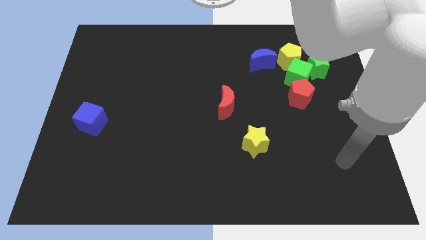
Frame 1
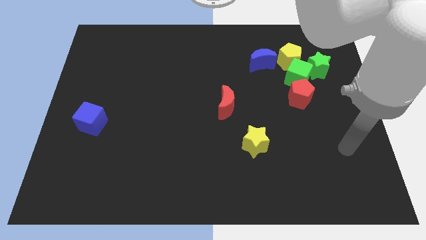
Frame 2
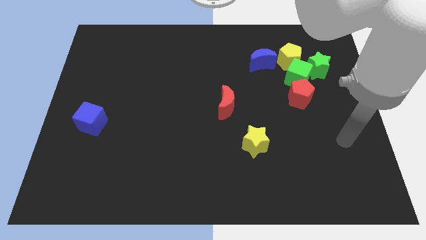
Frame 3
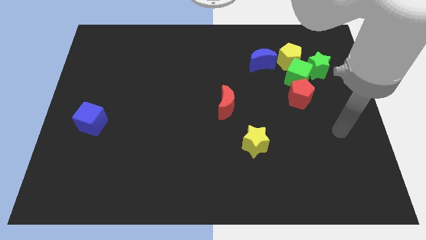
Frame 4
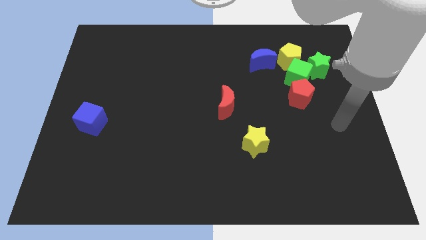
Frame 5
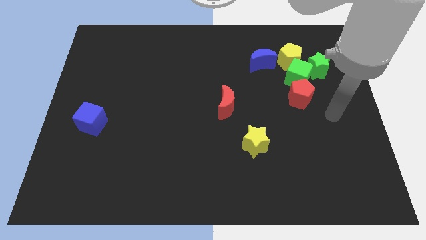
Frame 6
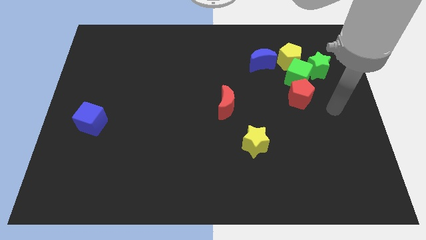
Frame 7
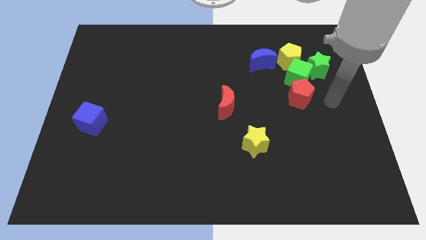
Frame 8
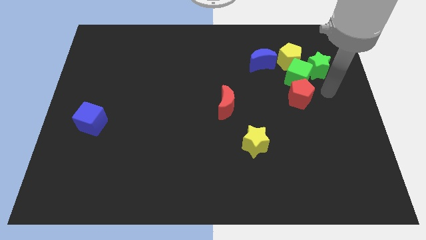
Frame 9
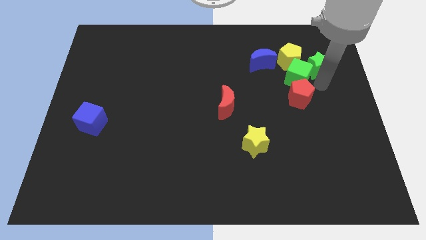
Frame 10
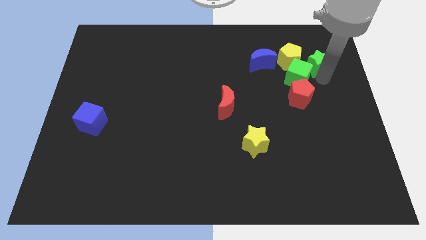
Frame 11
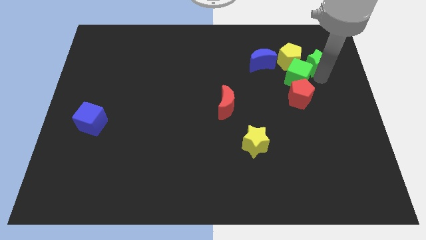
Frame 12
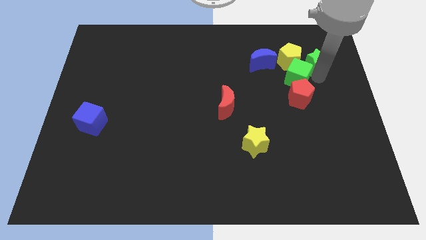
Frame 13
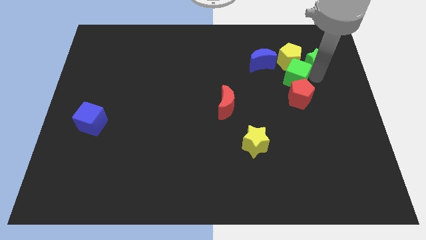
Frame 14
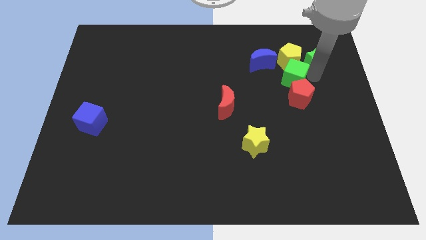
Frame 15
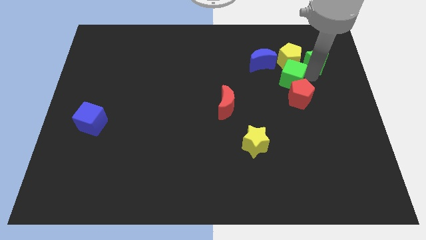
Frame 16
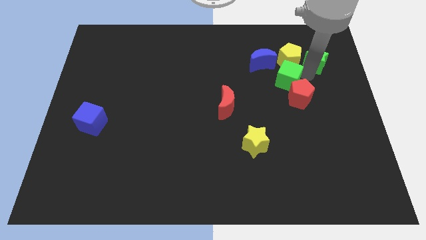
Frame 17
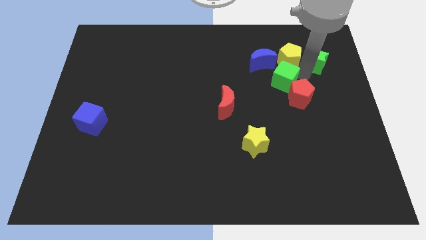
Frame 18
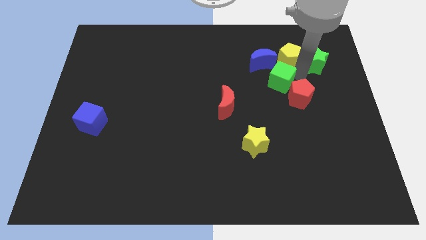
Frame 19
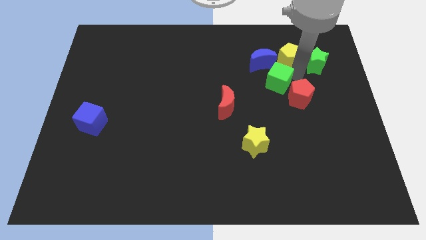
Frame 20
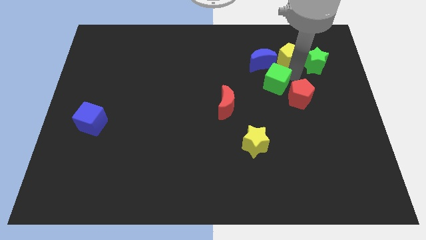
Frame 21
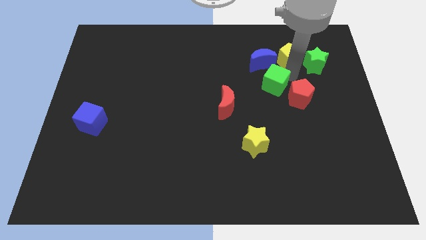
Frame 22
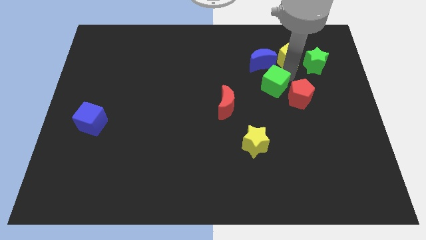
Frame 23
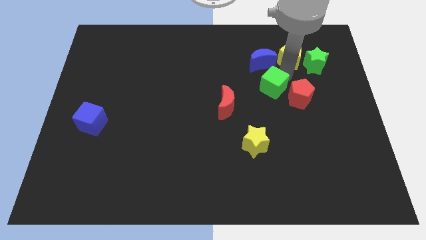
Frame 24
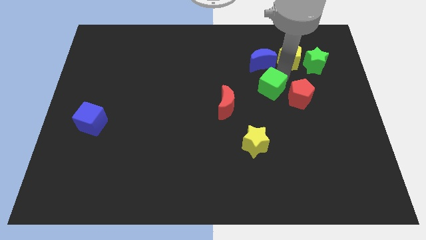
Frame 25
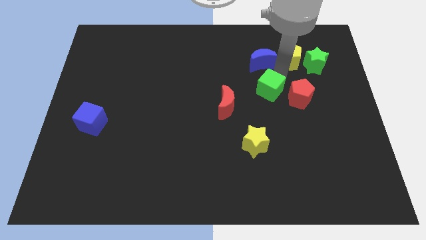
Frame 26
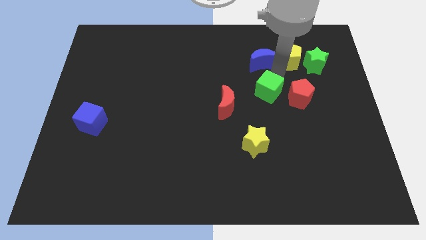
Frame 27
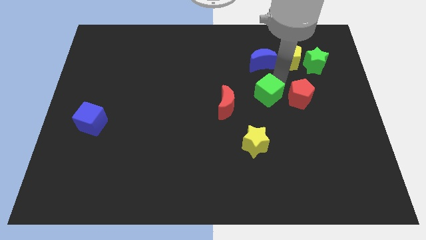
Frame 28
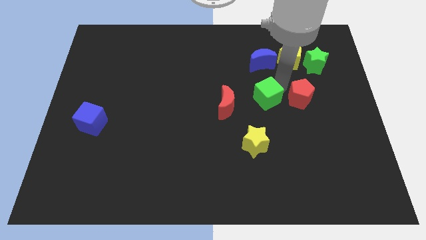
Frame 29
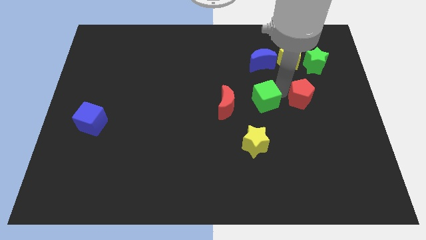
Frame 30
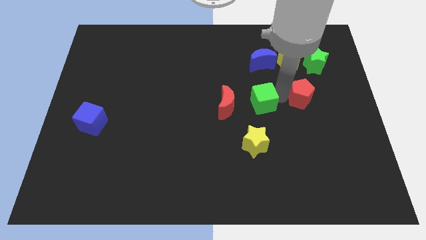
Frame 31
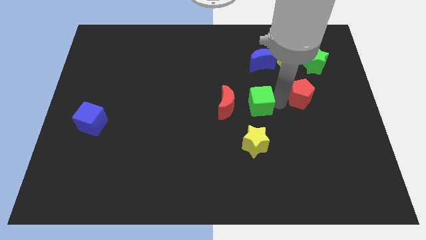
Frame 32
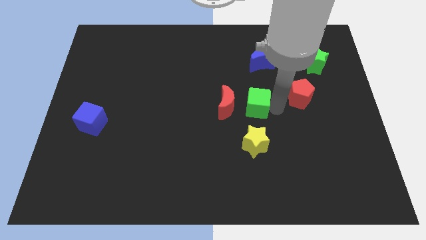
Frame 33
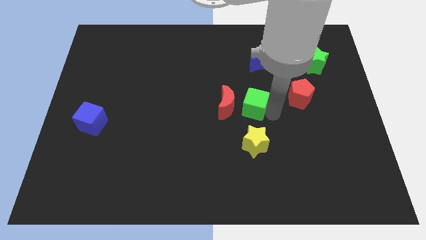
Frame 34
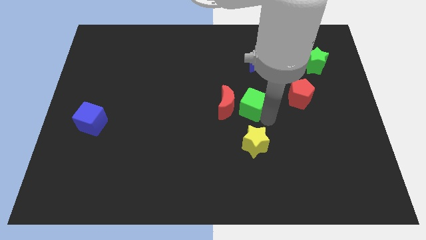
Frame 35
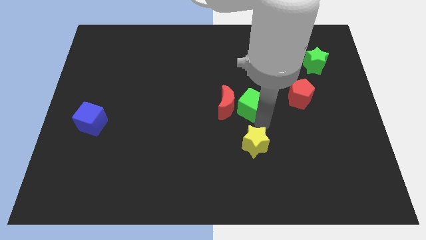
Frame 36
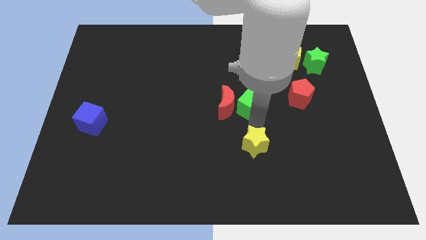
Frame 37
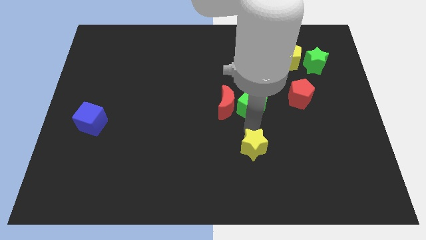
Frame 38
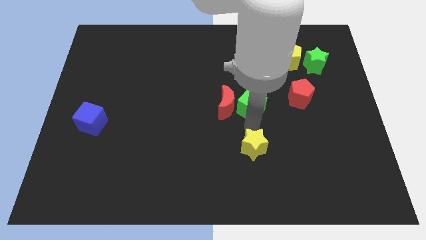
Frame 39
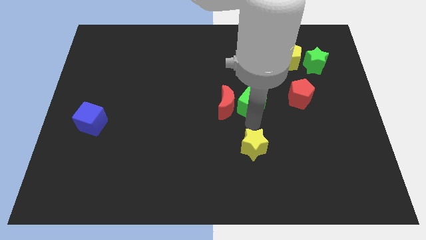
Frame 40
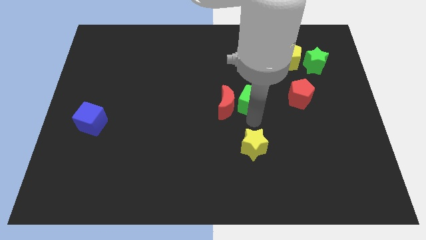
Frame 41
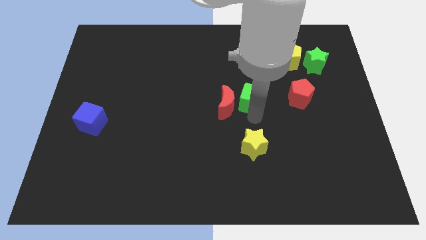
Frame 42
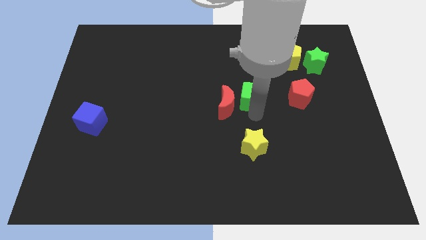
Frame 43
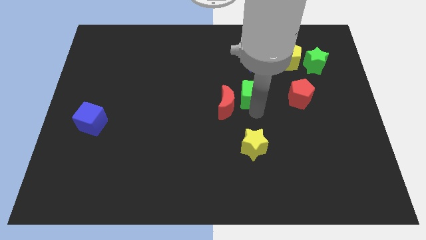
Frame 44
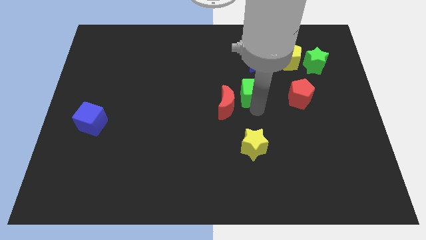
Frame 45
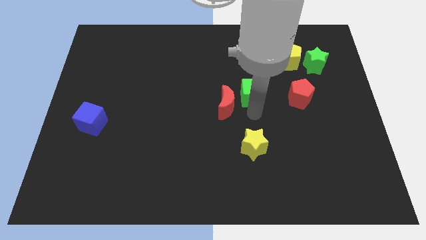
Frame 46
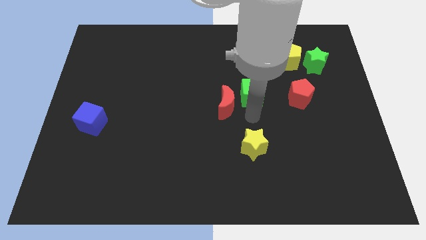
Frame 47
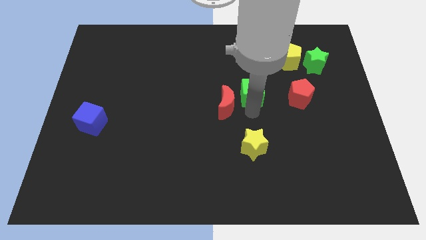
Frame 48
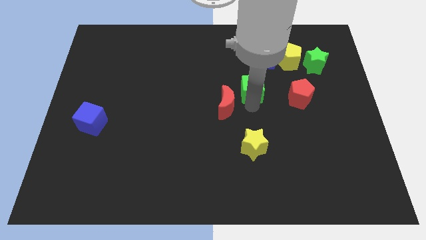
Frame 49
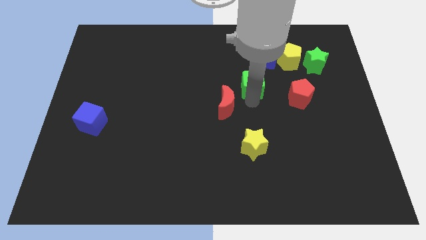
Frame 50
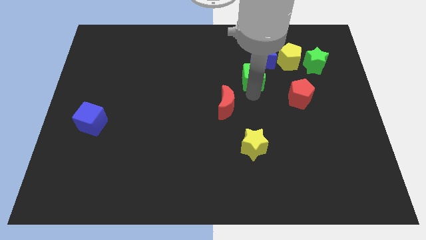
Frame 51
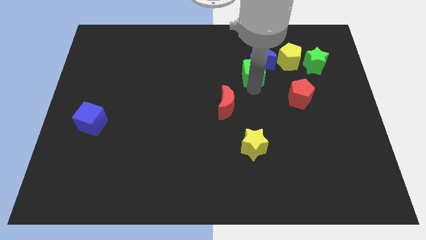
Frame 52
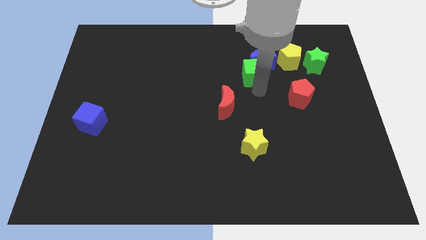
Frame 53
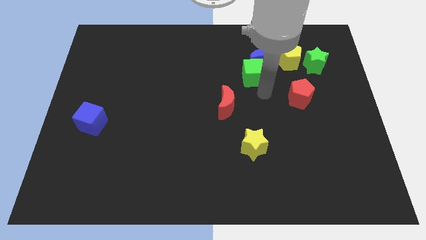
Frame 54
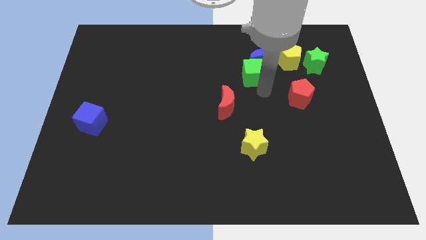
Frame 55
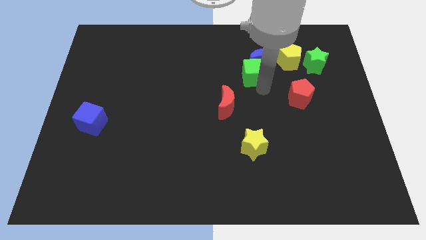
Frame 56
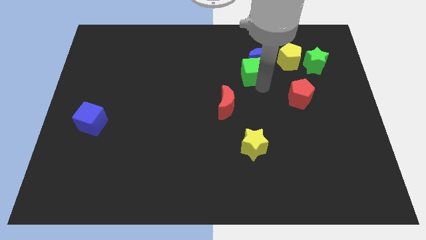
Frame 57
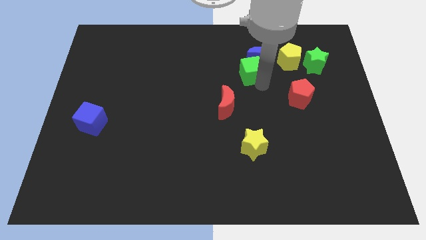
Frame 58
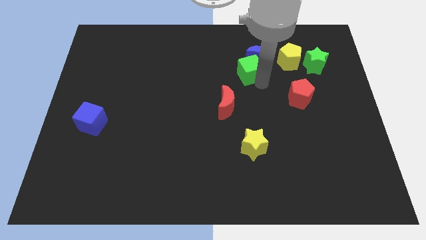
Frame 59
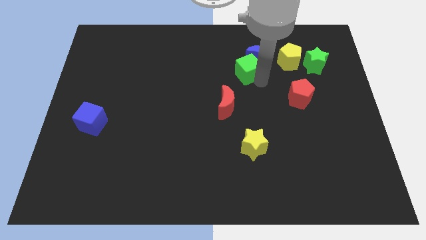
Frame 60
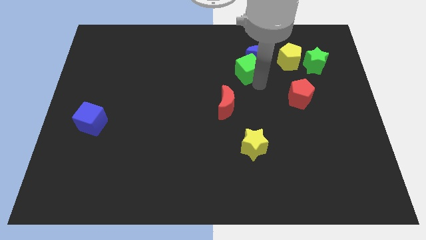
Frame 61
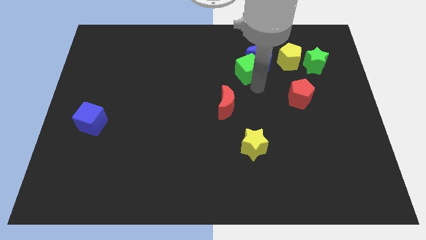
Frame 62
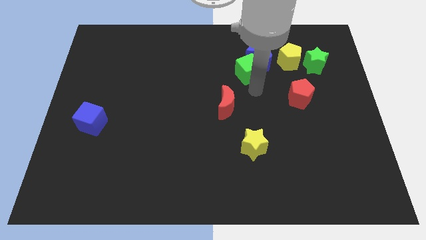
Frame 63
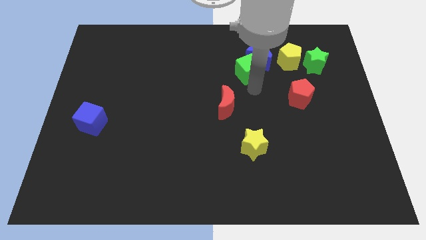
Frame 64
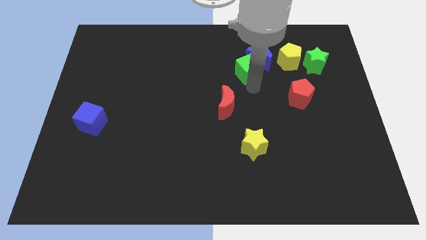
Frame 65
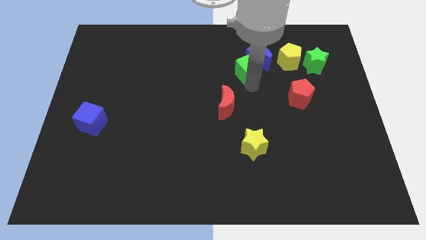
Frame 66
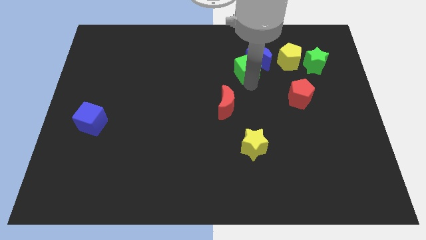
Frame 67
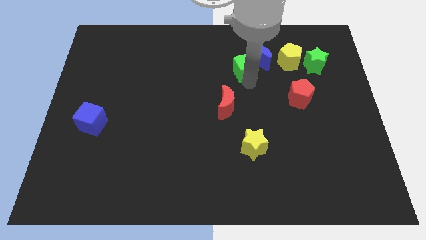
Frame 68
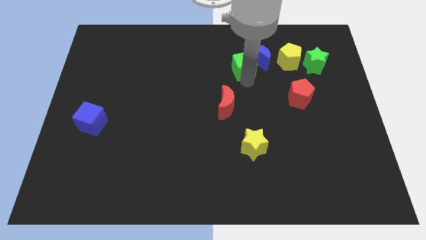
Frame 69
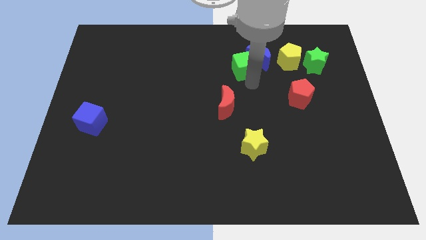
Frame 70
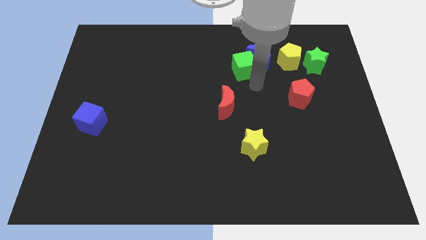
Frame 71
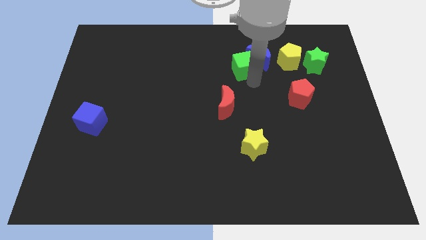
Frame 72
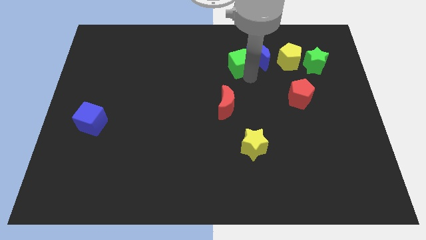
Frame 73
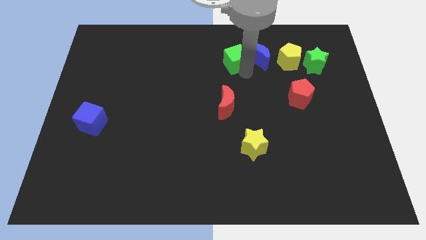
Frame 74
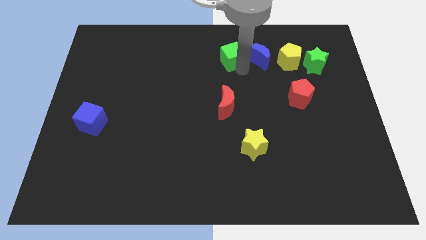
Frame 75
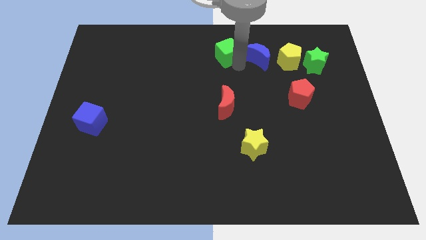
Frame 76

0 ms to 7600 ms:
put the green cube to the towards your base
